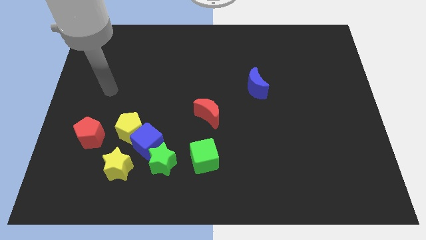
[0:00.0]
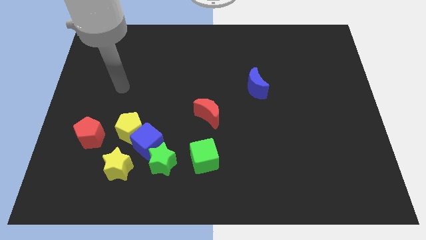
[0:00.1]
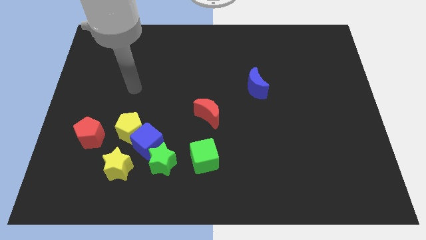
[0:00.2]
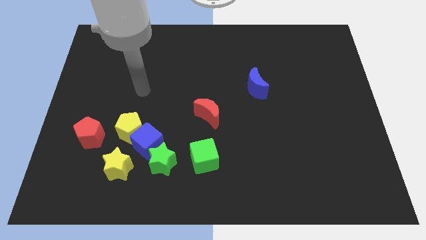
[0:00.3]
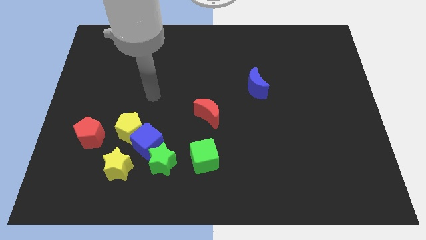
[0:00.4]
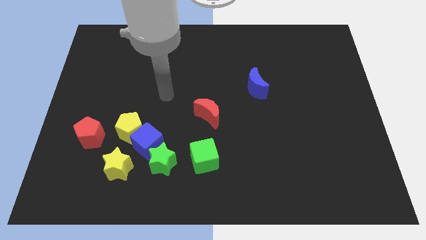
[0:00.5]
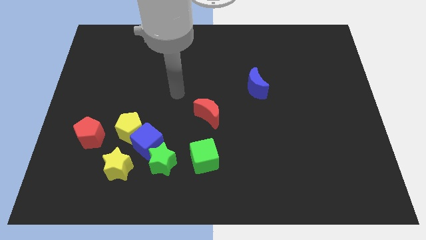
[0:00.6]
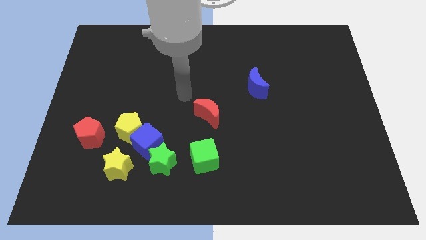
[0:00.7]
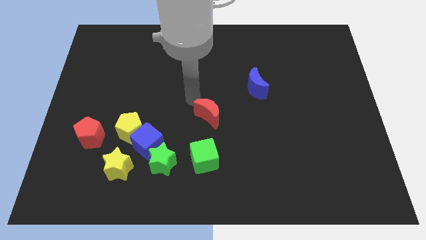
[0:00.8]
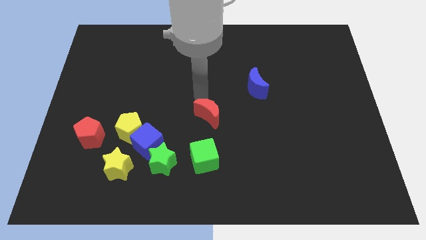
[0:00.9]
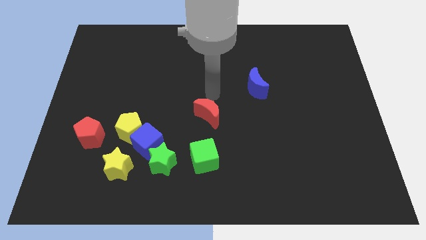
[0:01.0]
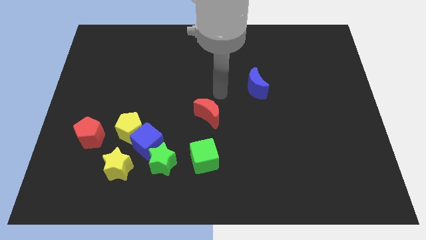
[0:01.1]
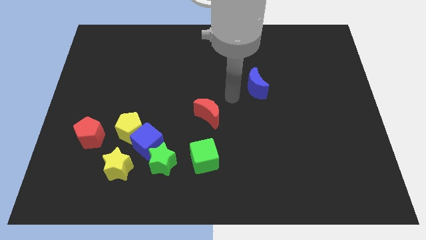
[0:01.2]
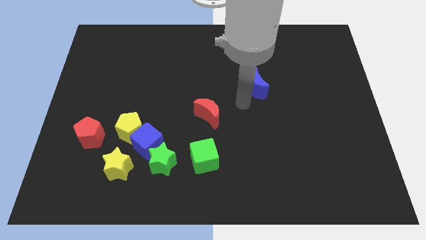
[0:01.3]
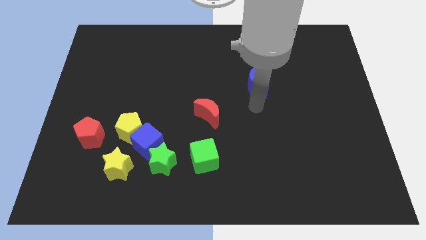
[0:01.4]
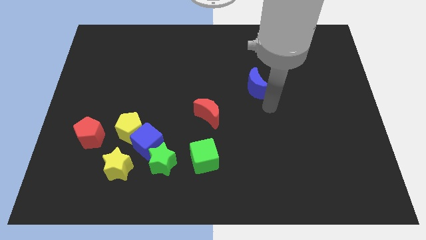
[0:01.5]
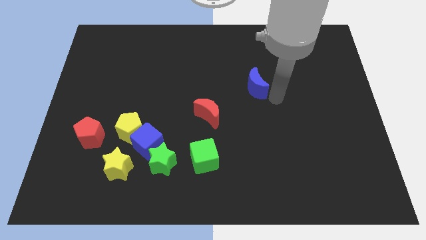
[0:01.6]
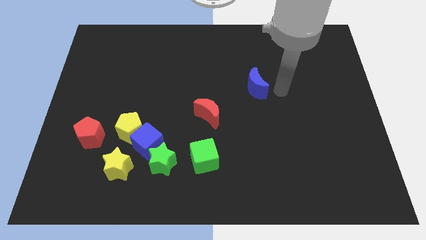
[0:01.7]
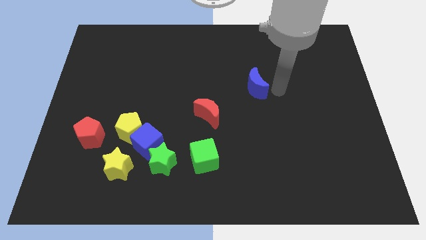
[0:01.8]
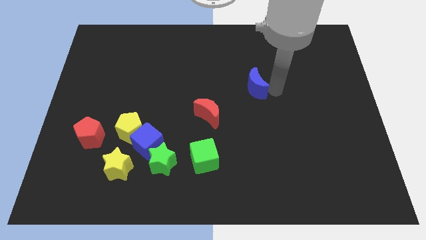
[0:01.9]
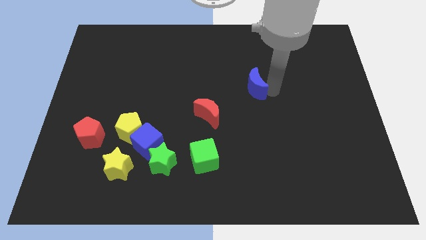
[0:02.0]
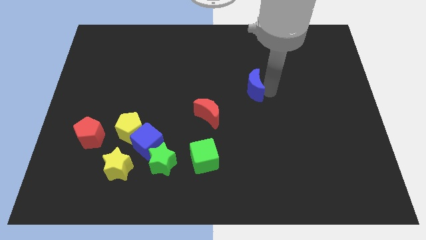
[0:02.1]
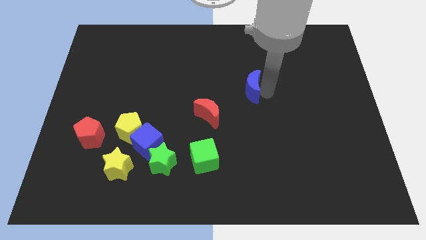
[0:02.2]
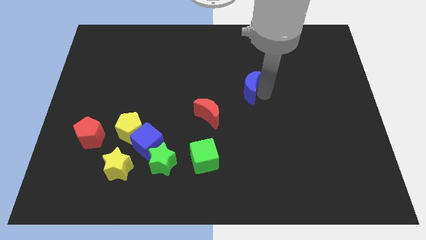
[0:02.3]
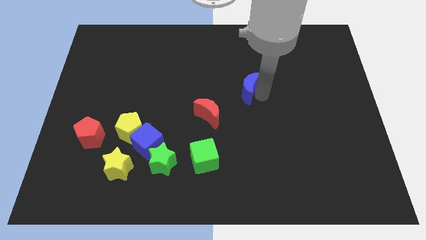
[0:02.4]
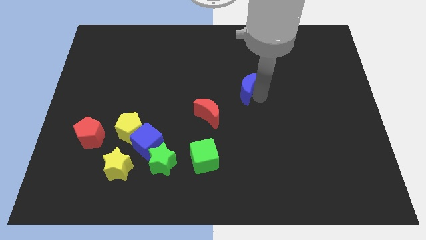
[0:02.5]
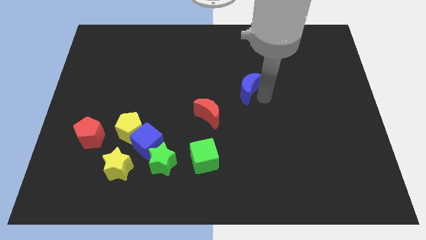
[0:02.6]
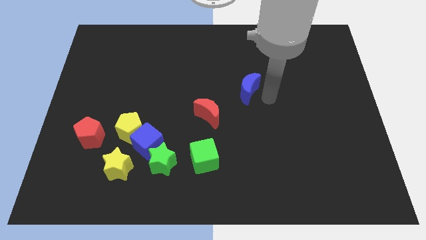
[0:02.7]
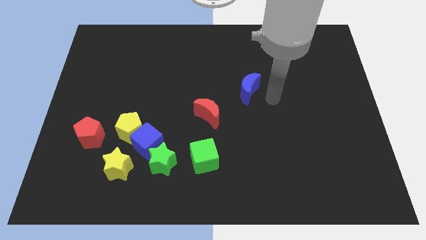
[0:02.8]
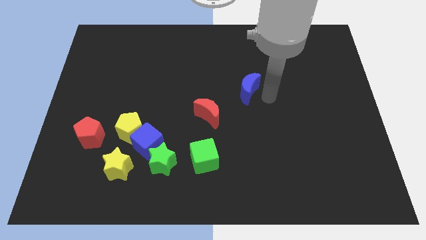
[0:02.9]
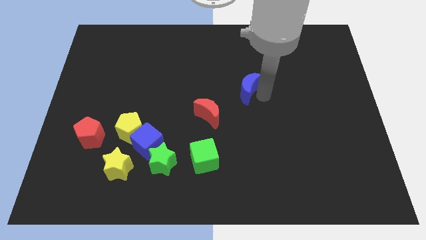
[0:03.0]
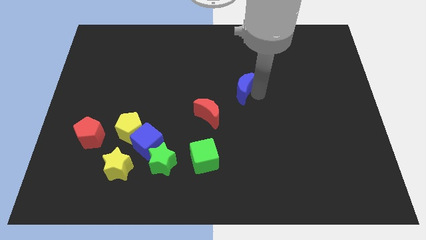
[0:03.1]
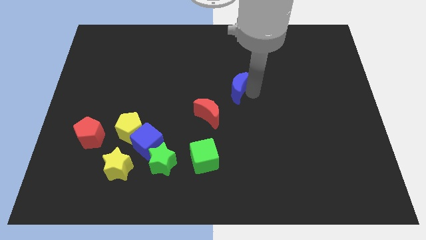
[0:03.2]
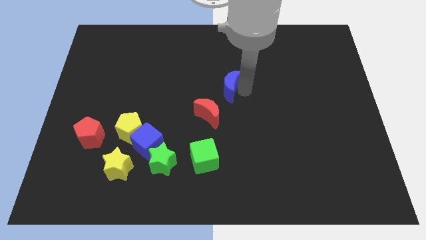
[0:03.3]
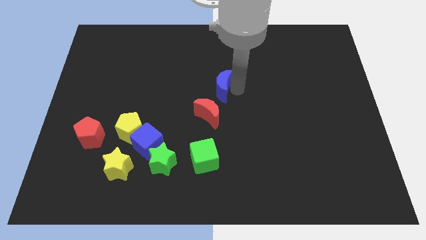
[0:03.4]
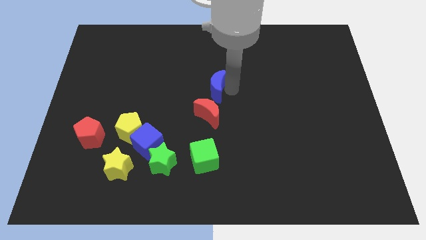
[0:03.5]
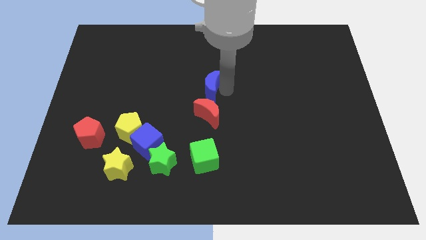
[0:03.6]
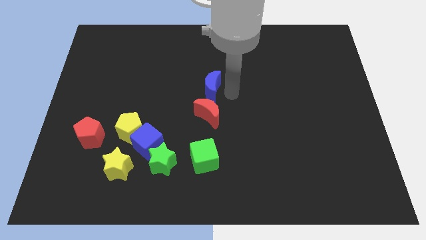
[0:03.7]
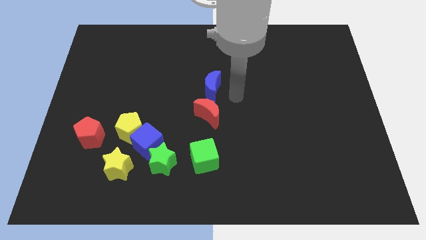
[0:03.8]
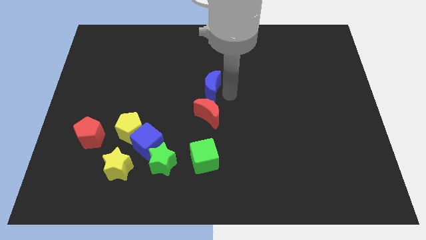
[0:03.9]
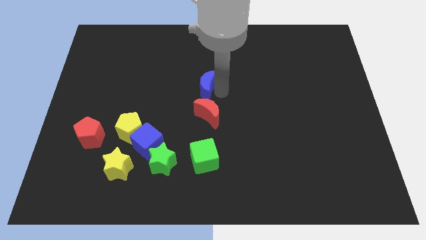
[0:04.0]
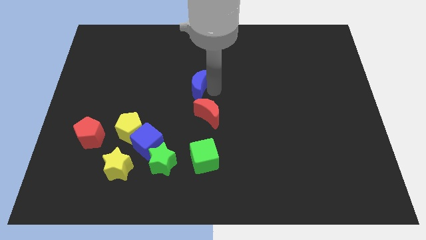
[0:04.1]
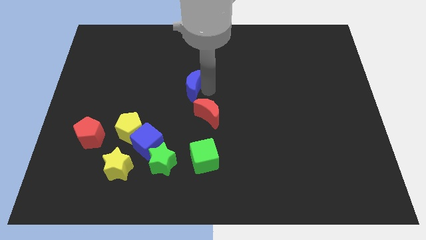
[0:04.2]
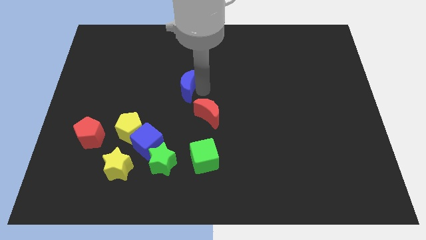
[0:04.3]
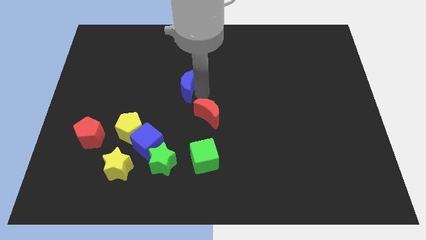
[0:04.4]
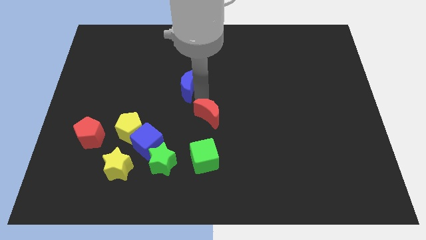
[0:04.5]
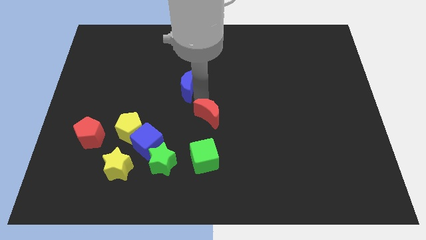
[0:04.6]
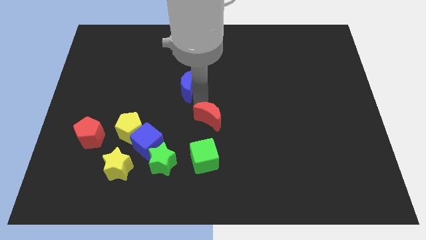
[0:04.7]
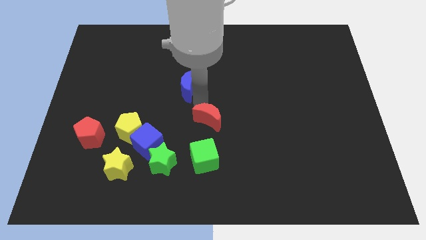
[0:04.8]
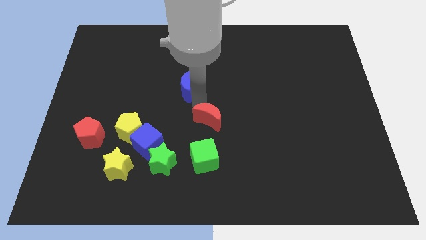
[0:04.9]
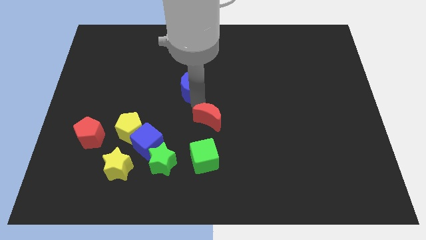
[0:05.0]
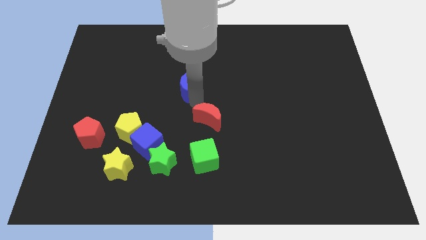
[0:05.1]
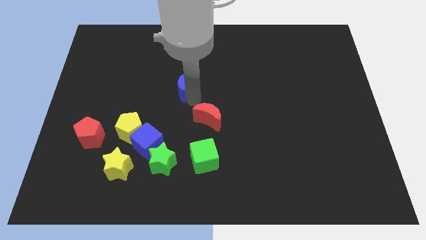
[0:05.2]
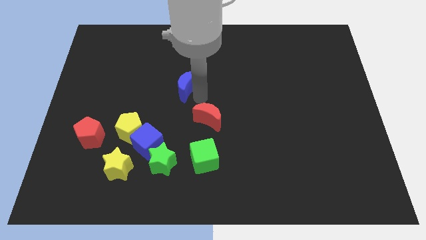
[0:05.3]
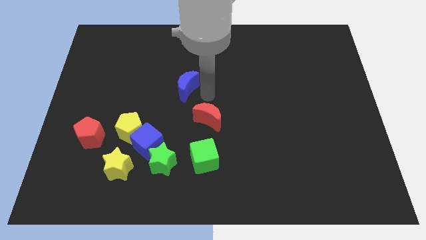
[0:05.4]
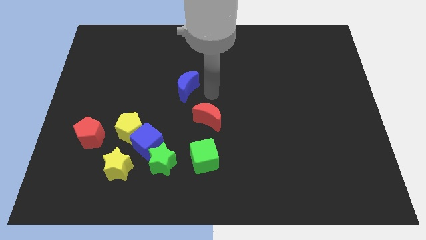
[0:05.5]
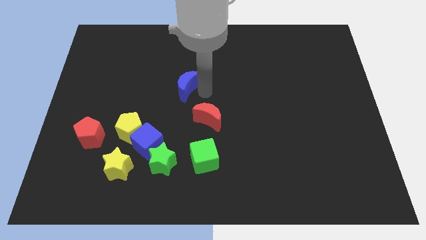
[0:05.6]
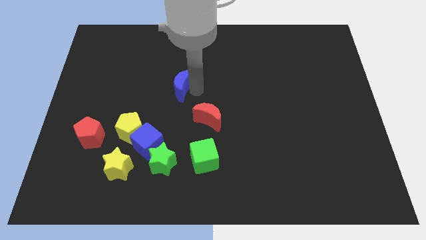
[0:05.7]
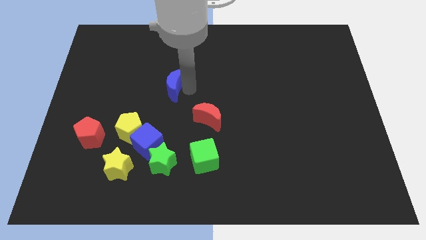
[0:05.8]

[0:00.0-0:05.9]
slide the blue moon left

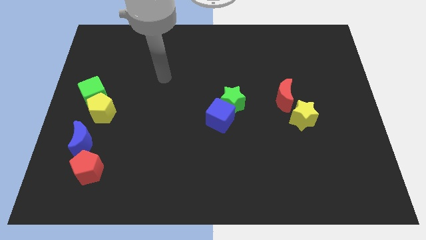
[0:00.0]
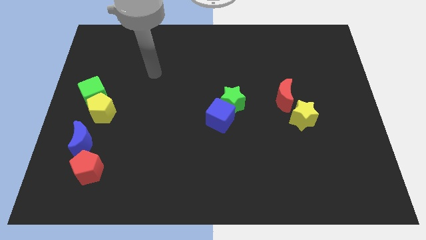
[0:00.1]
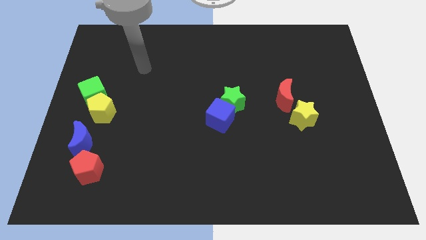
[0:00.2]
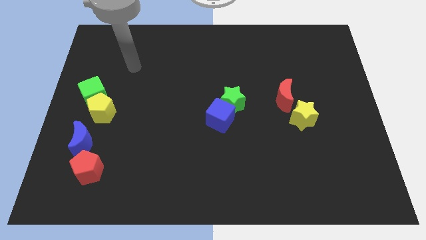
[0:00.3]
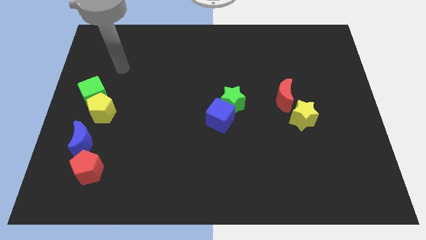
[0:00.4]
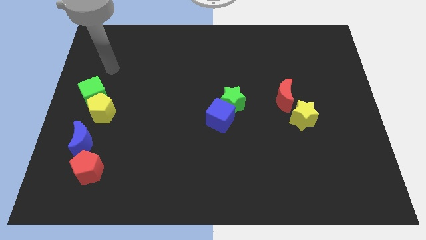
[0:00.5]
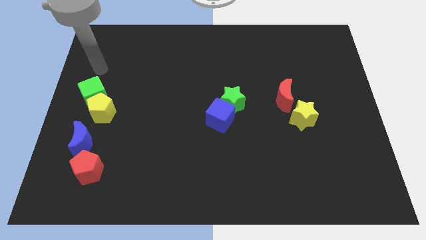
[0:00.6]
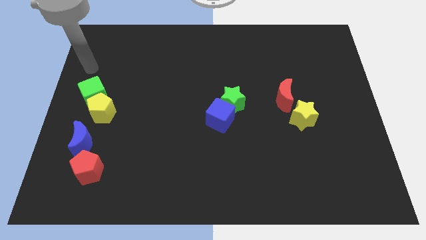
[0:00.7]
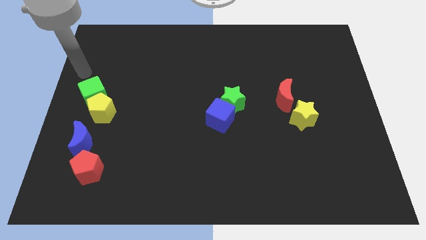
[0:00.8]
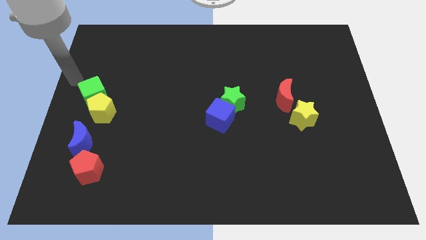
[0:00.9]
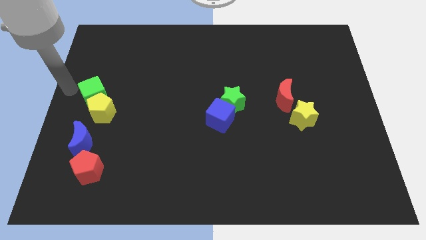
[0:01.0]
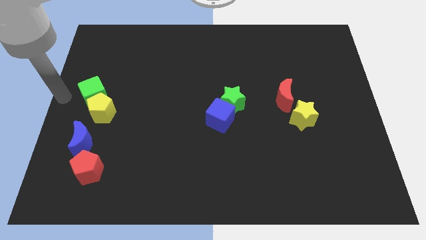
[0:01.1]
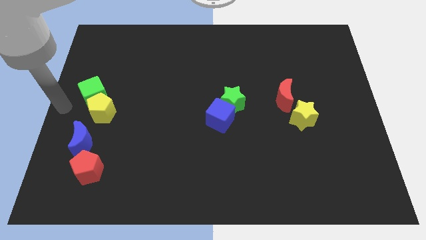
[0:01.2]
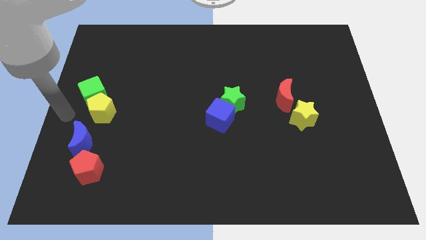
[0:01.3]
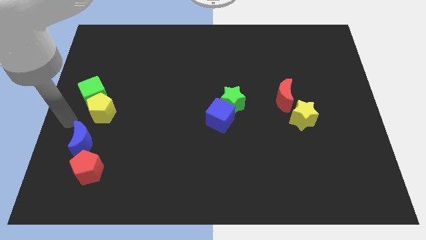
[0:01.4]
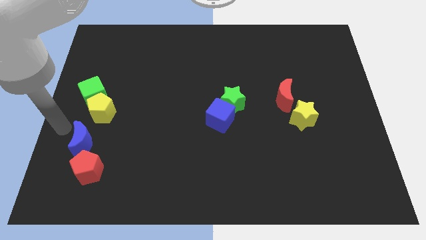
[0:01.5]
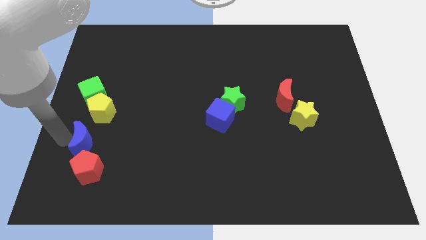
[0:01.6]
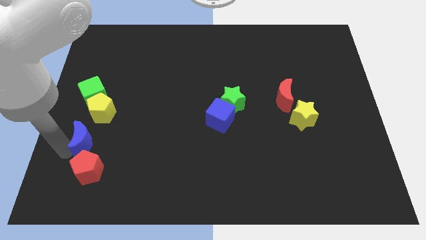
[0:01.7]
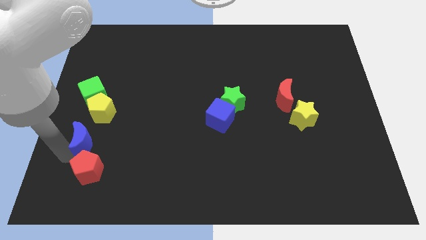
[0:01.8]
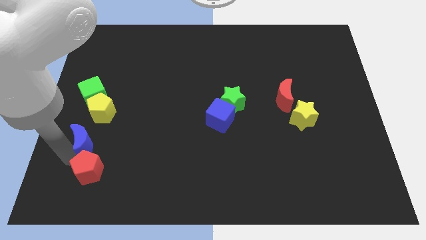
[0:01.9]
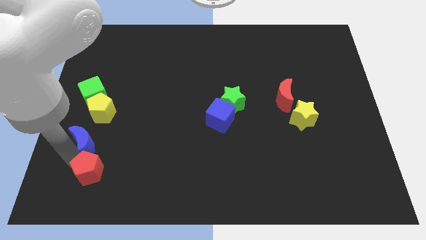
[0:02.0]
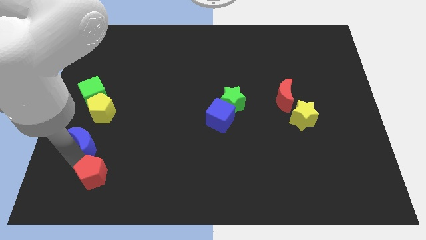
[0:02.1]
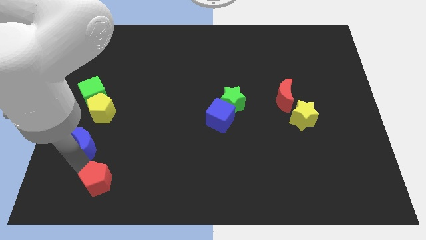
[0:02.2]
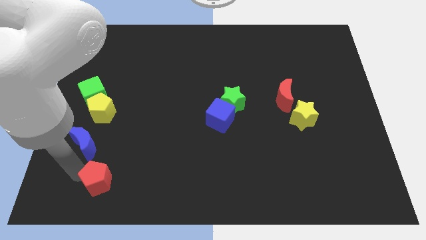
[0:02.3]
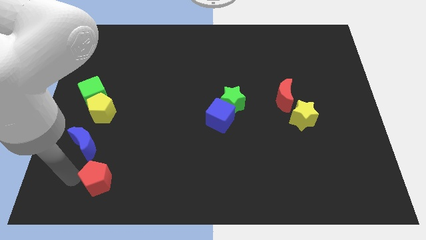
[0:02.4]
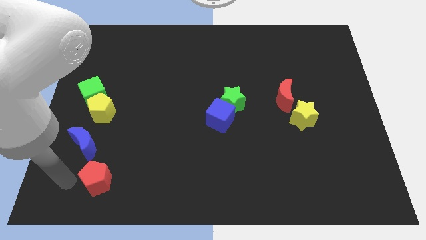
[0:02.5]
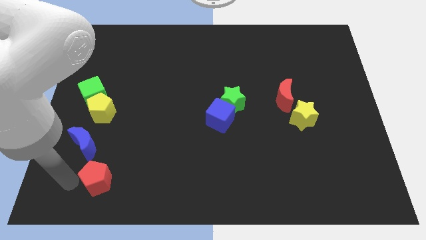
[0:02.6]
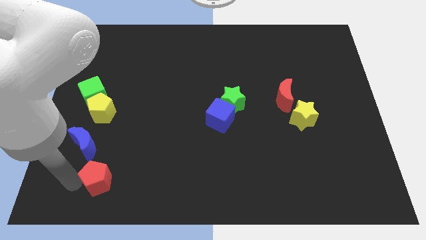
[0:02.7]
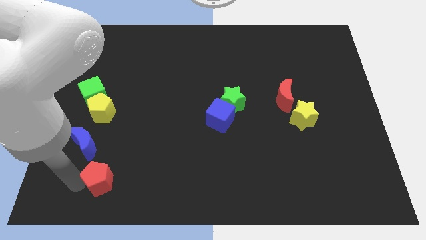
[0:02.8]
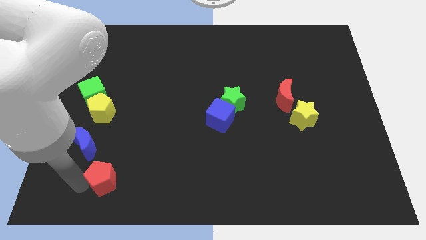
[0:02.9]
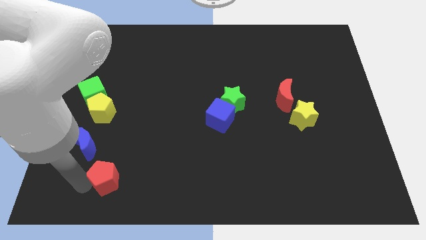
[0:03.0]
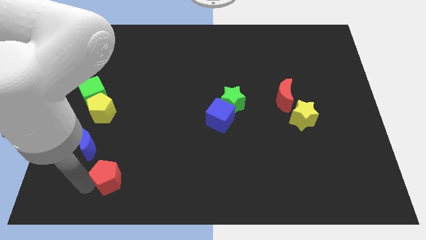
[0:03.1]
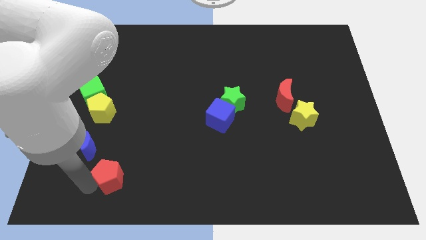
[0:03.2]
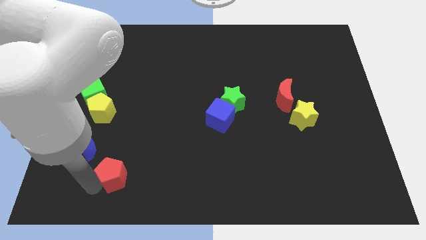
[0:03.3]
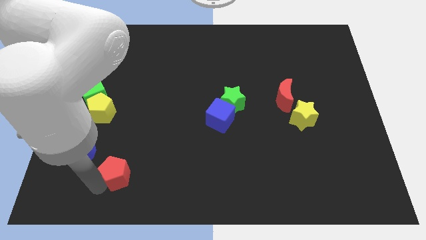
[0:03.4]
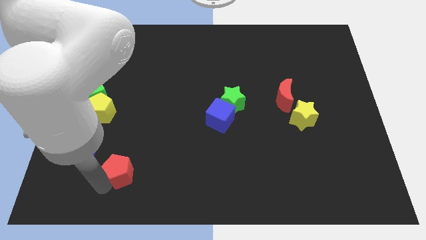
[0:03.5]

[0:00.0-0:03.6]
push the red pentagon a little right
